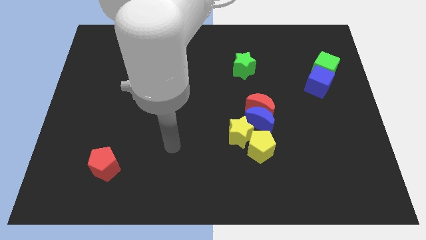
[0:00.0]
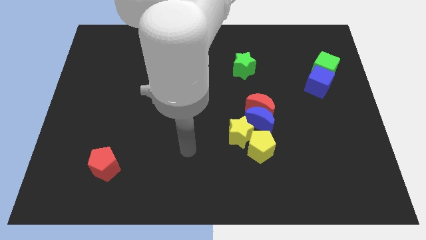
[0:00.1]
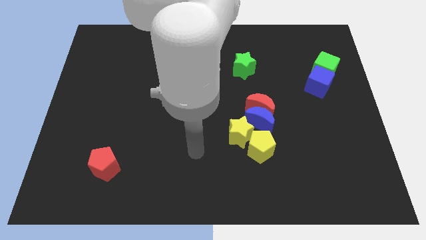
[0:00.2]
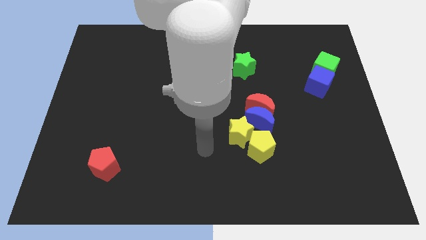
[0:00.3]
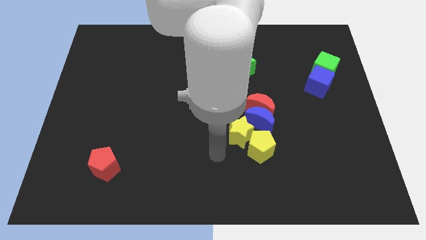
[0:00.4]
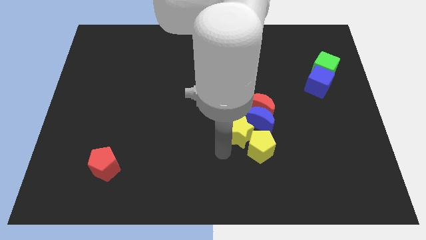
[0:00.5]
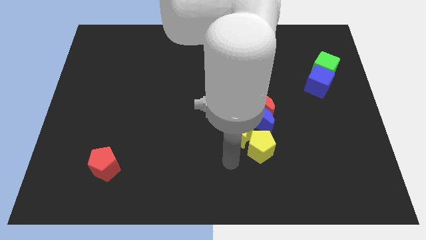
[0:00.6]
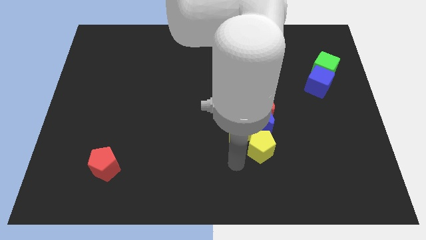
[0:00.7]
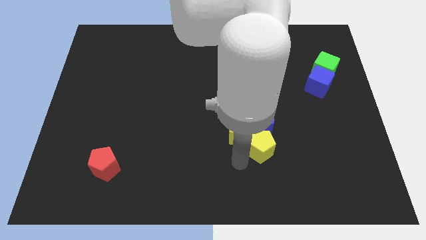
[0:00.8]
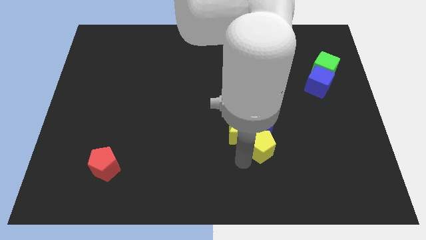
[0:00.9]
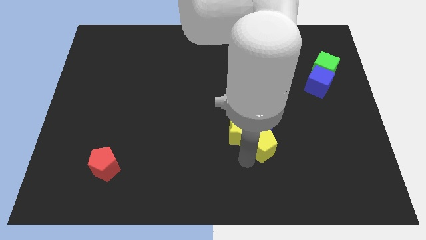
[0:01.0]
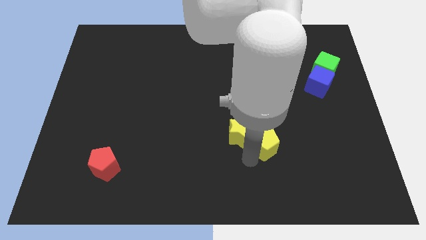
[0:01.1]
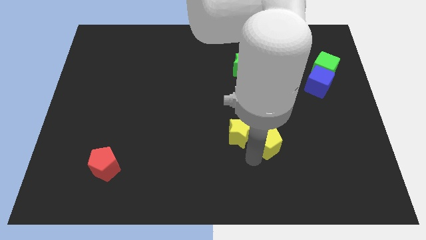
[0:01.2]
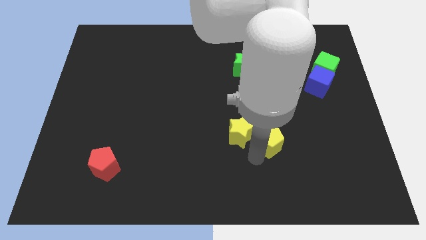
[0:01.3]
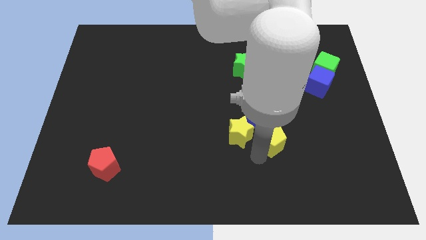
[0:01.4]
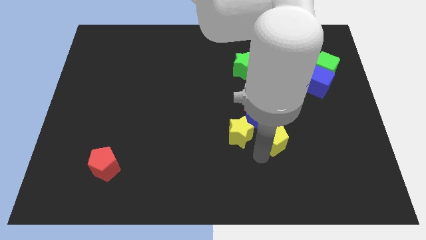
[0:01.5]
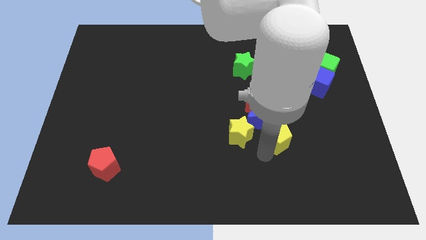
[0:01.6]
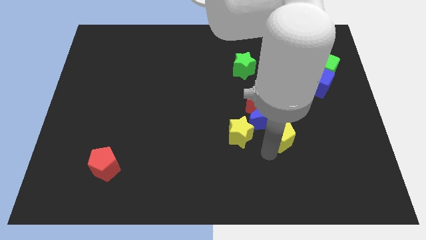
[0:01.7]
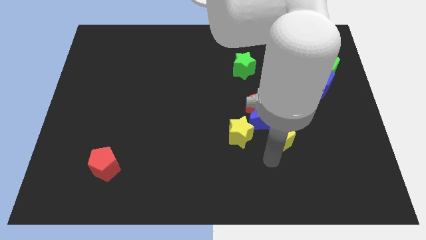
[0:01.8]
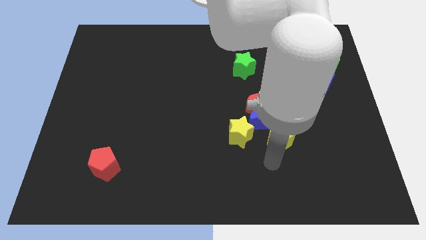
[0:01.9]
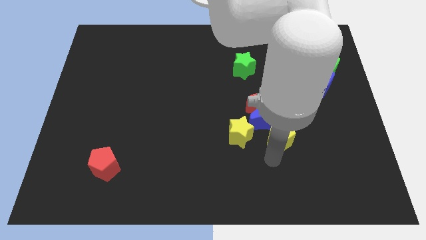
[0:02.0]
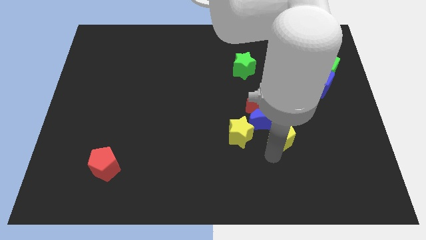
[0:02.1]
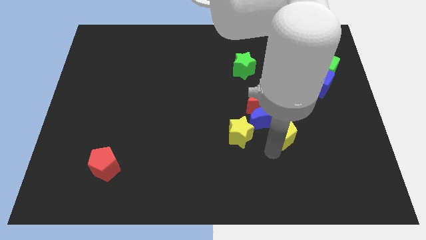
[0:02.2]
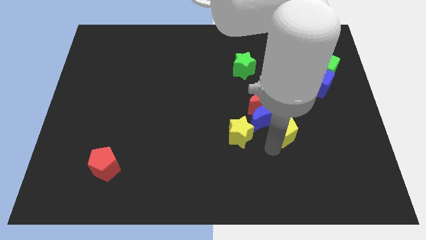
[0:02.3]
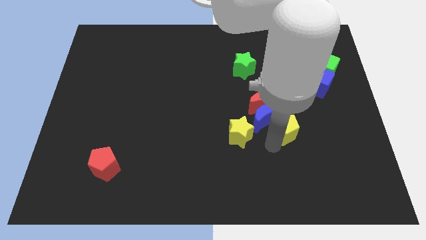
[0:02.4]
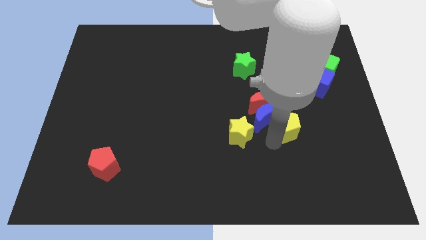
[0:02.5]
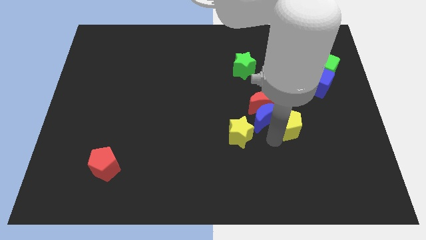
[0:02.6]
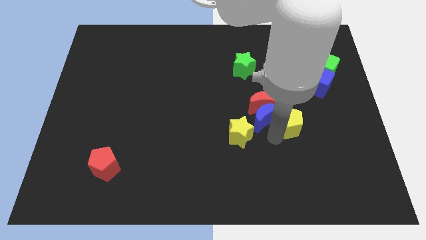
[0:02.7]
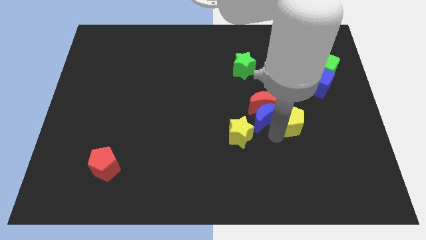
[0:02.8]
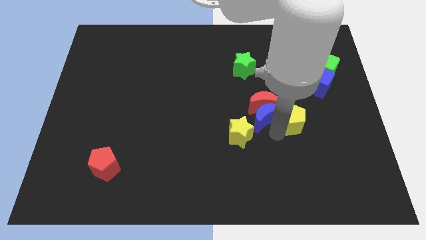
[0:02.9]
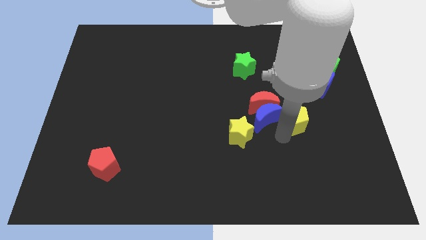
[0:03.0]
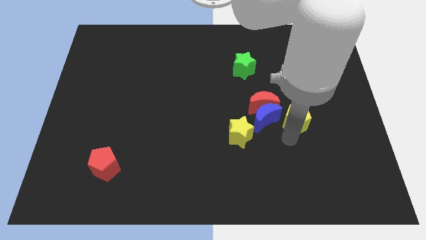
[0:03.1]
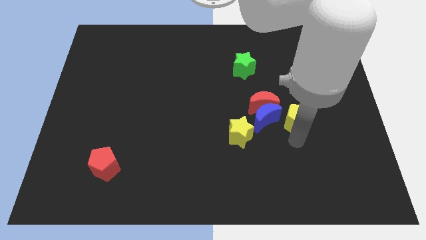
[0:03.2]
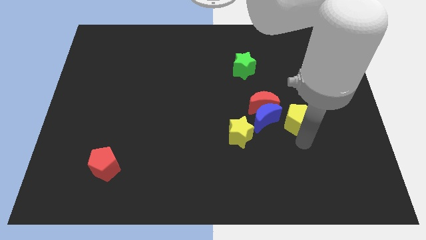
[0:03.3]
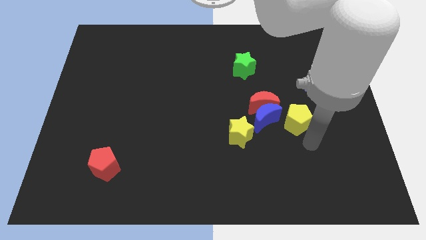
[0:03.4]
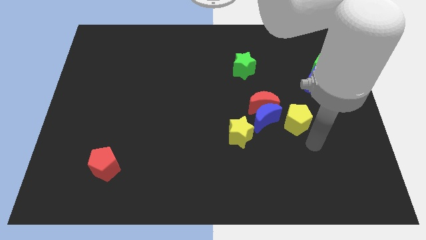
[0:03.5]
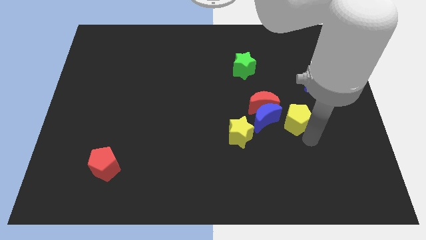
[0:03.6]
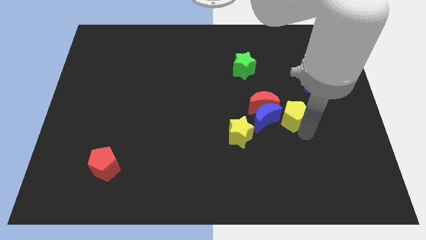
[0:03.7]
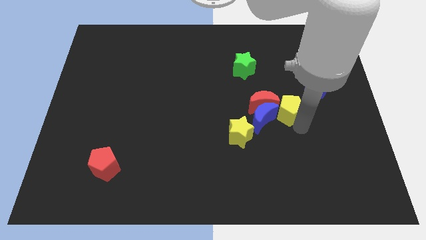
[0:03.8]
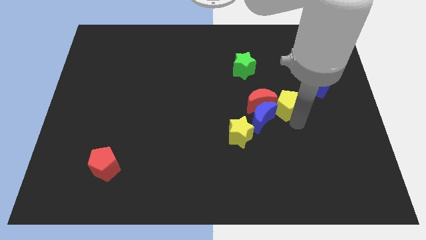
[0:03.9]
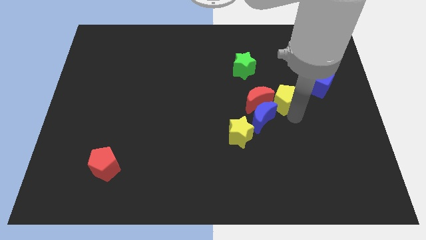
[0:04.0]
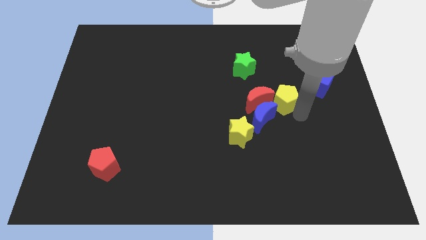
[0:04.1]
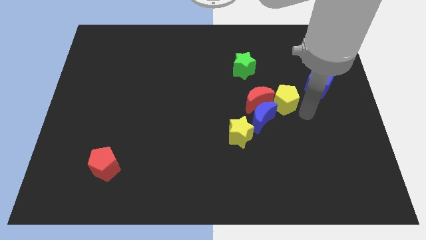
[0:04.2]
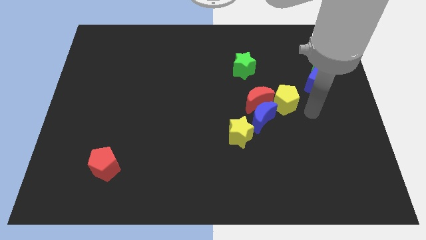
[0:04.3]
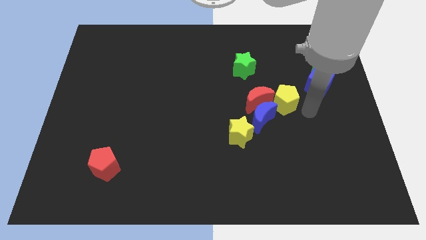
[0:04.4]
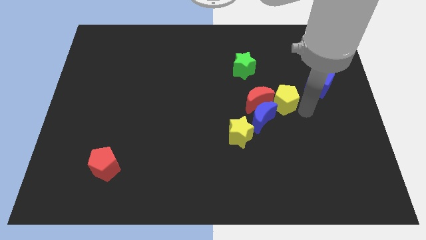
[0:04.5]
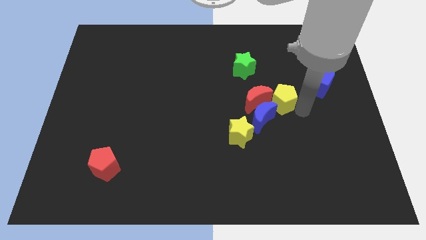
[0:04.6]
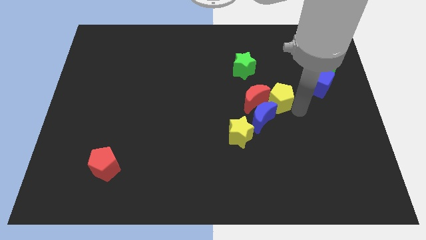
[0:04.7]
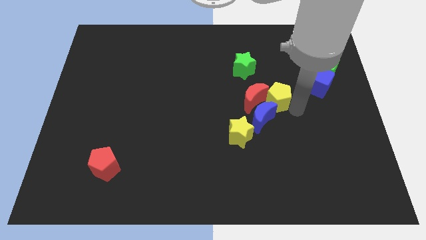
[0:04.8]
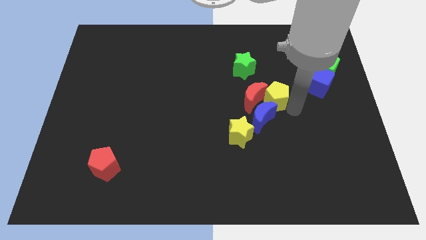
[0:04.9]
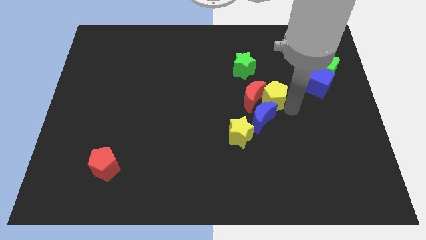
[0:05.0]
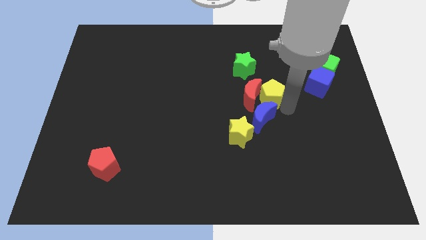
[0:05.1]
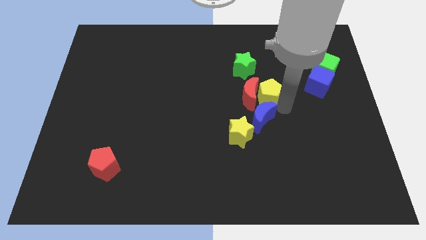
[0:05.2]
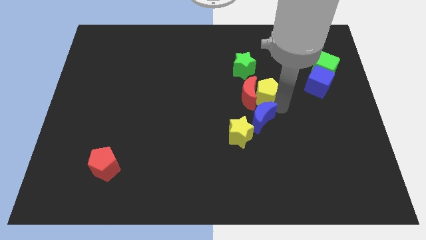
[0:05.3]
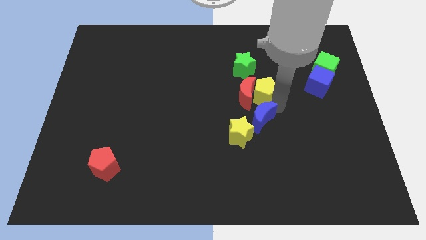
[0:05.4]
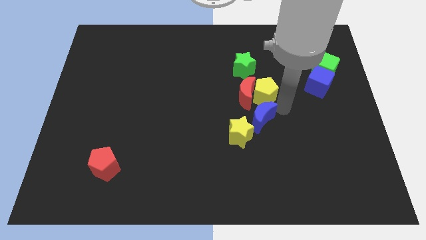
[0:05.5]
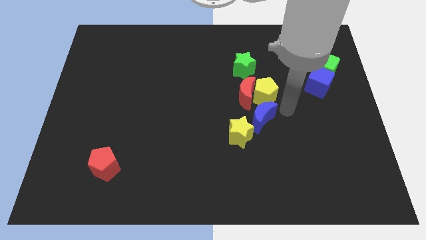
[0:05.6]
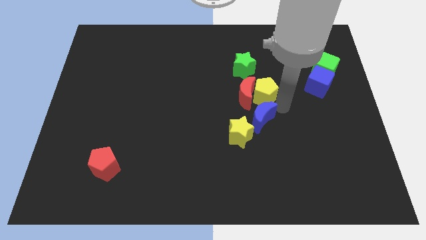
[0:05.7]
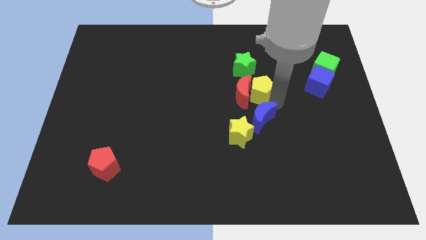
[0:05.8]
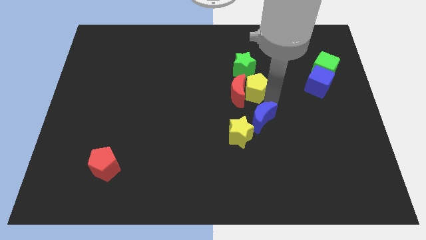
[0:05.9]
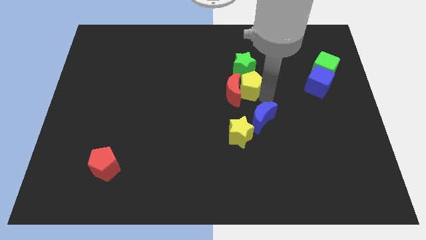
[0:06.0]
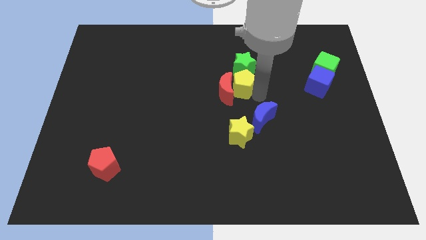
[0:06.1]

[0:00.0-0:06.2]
slide the yellow pentagon to the green star

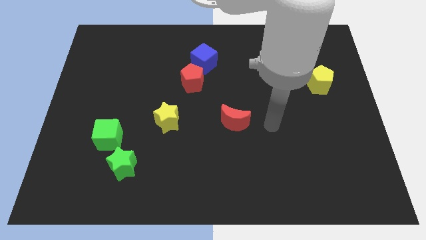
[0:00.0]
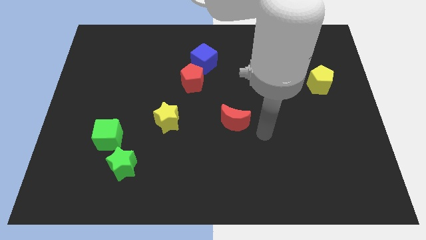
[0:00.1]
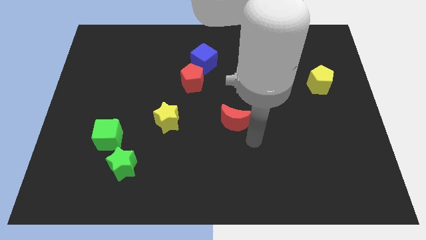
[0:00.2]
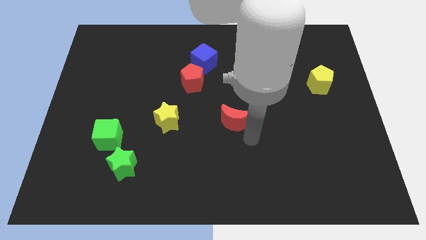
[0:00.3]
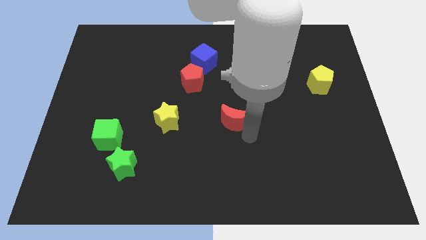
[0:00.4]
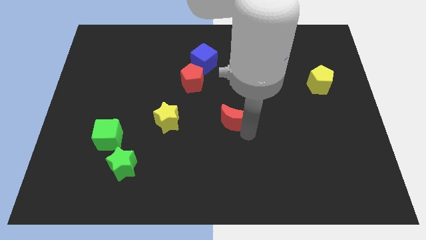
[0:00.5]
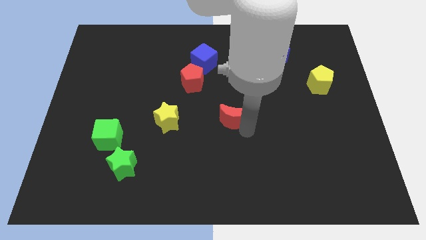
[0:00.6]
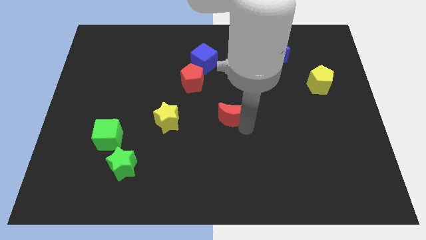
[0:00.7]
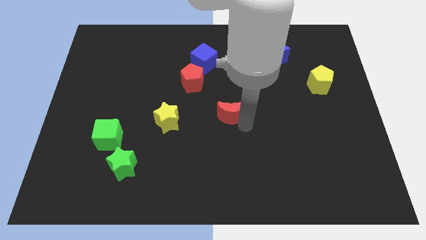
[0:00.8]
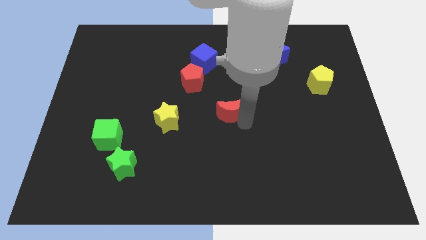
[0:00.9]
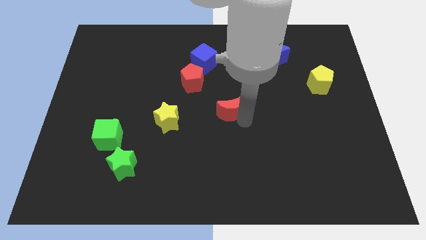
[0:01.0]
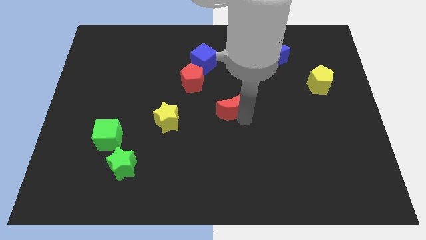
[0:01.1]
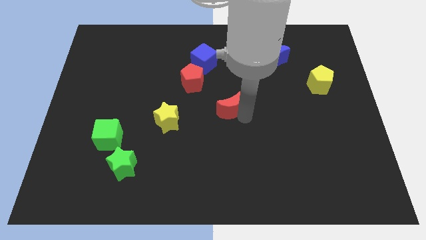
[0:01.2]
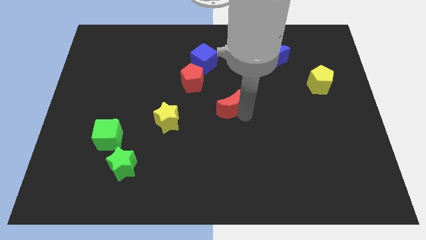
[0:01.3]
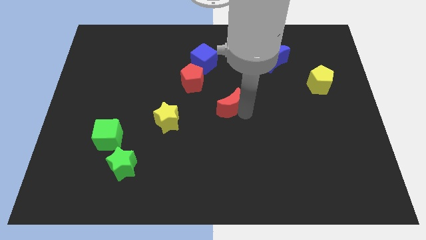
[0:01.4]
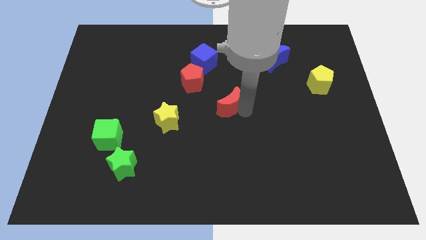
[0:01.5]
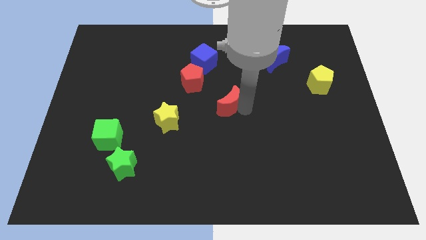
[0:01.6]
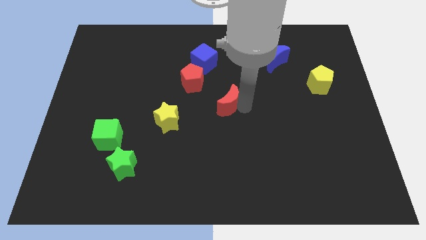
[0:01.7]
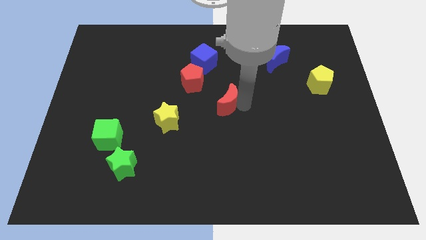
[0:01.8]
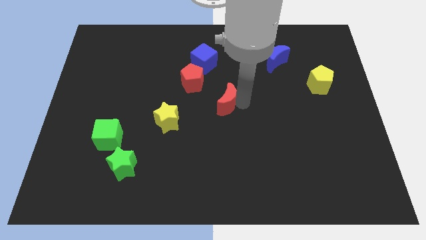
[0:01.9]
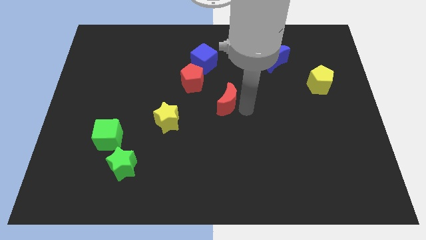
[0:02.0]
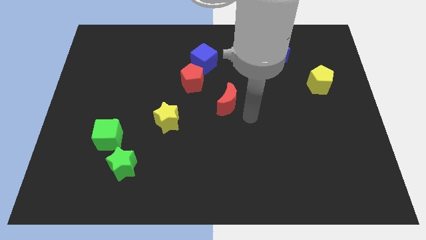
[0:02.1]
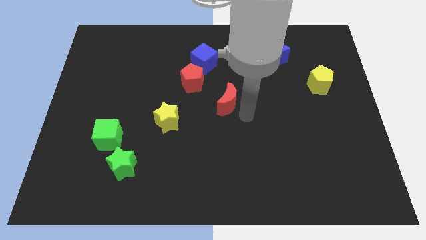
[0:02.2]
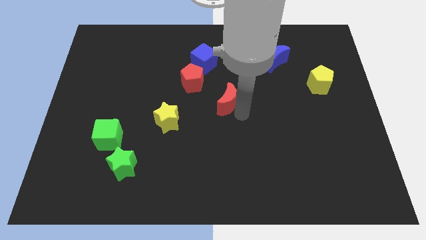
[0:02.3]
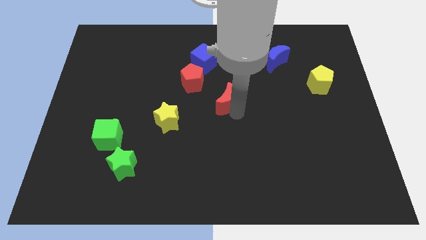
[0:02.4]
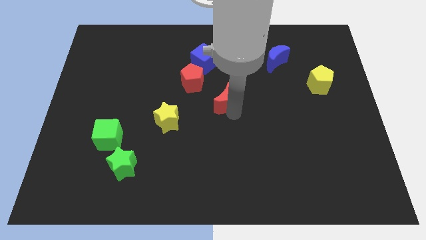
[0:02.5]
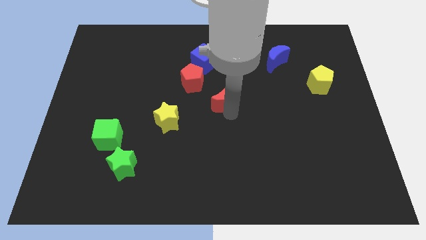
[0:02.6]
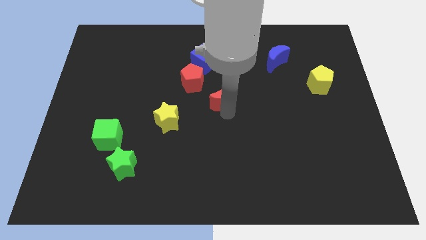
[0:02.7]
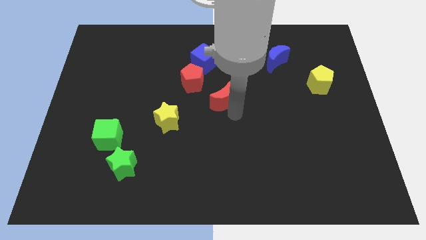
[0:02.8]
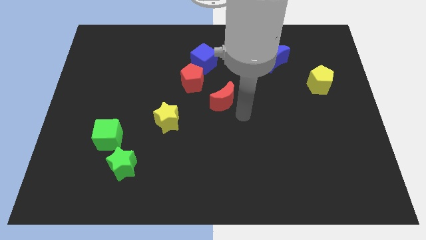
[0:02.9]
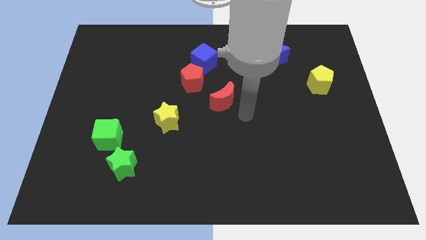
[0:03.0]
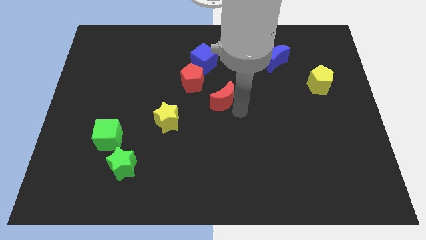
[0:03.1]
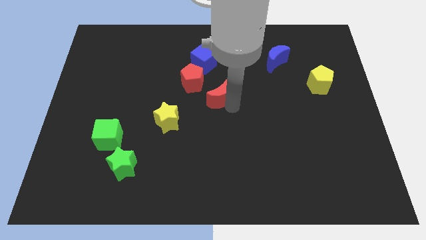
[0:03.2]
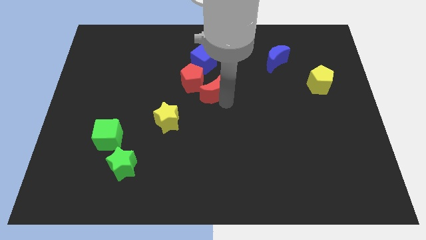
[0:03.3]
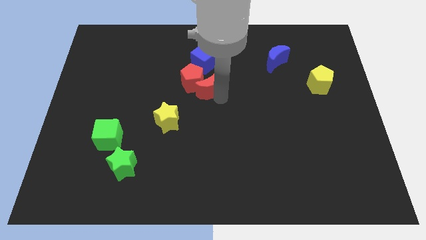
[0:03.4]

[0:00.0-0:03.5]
move the red moon to the red pentagon
